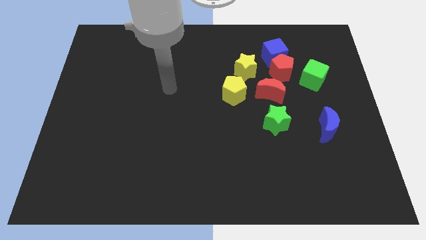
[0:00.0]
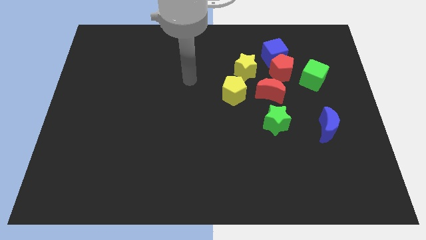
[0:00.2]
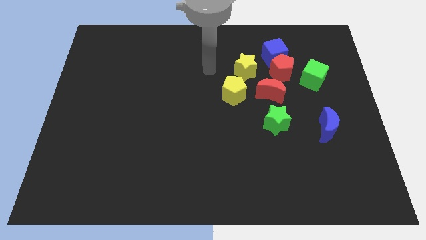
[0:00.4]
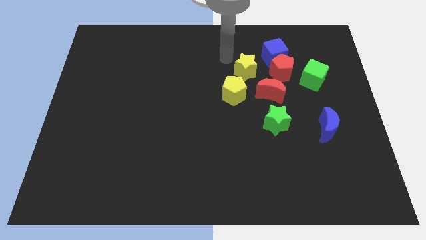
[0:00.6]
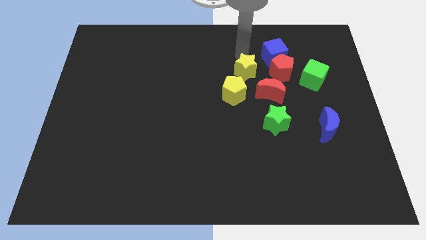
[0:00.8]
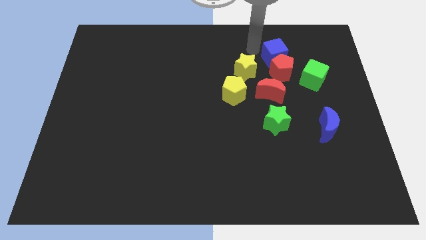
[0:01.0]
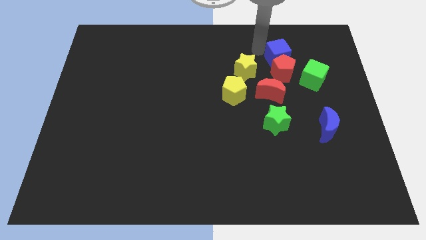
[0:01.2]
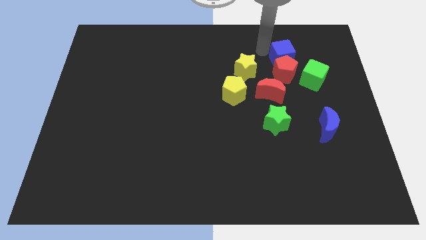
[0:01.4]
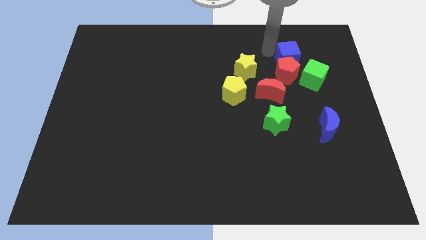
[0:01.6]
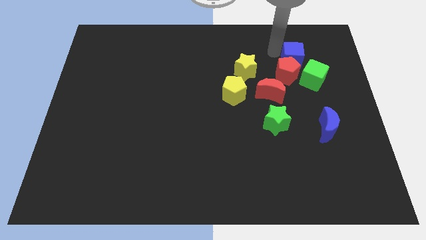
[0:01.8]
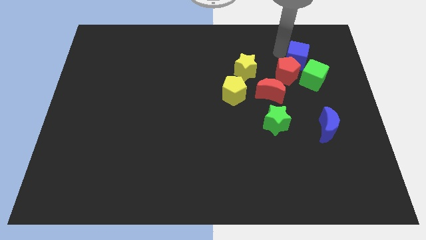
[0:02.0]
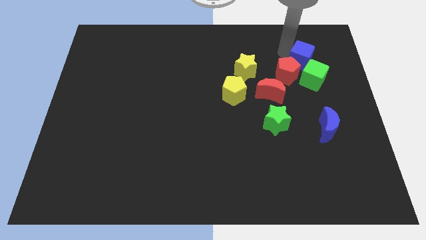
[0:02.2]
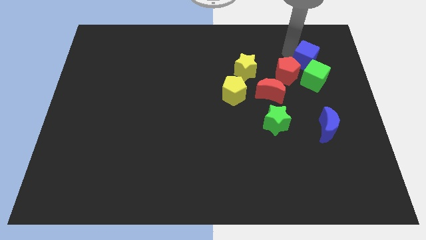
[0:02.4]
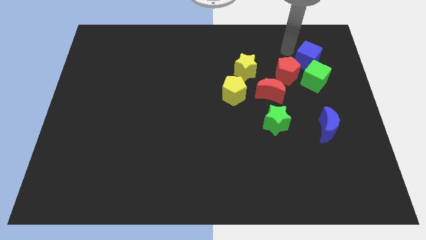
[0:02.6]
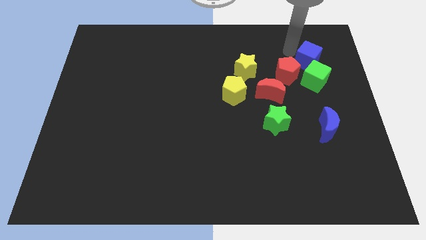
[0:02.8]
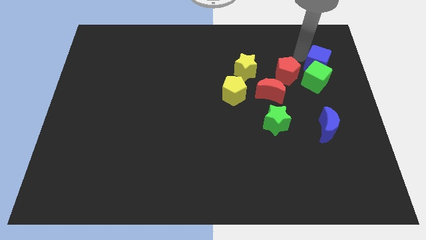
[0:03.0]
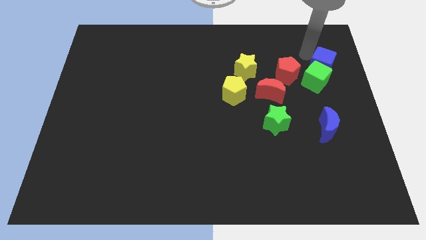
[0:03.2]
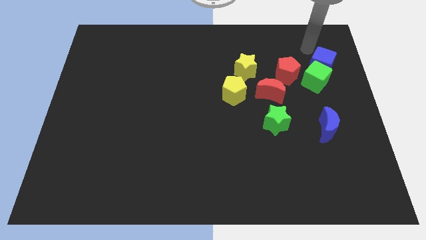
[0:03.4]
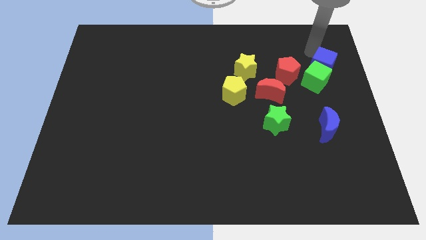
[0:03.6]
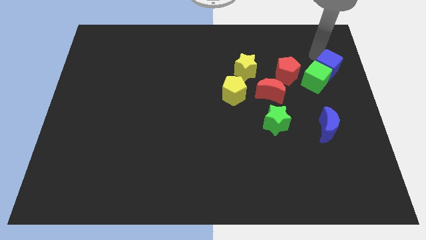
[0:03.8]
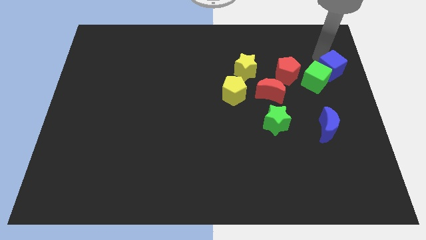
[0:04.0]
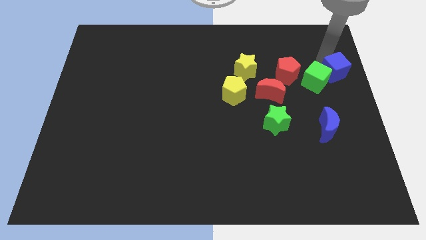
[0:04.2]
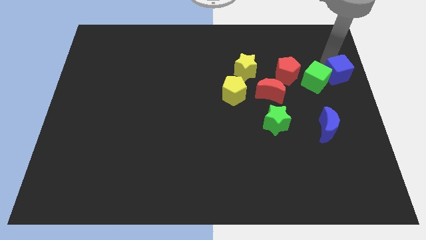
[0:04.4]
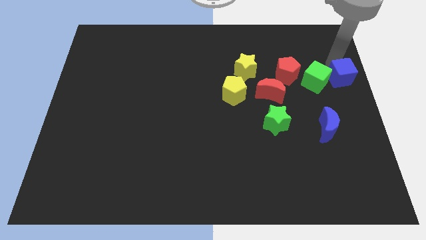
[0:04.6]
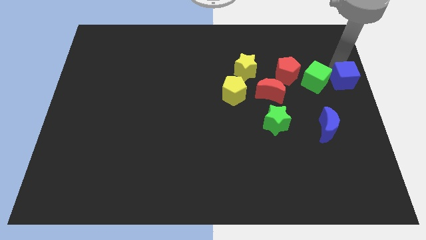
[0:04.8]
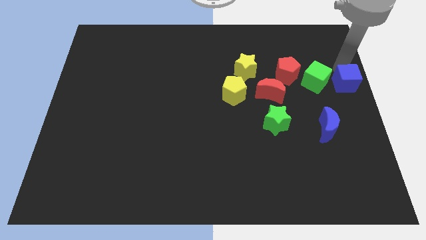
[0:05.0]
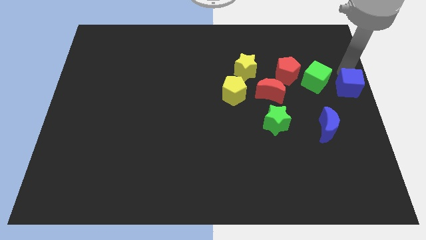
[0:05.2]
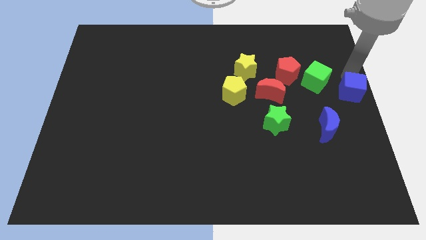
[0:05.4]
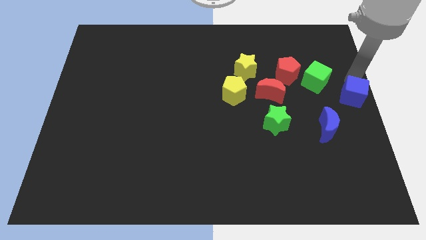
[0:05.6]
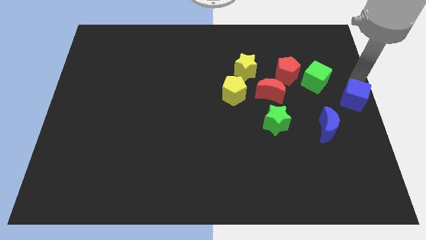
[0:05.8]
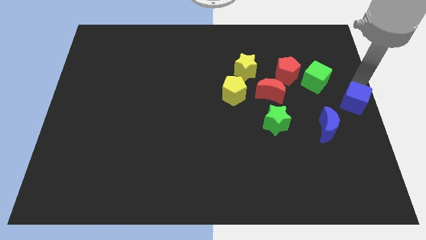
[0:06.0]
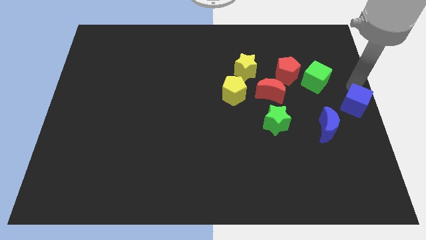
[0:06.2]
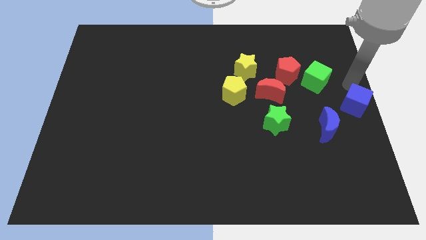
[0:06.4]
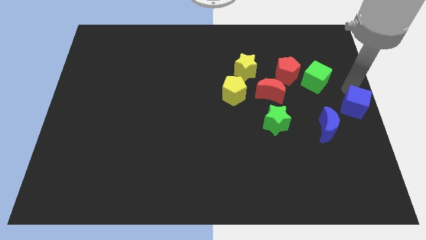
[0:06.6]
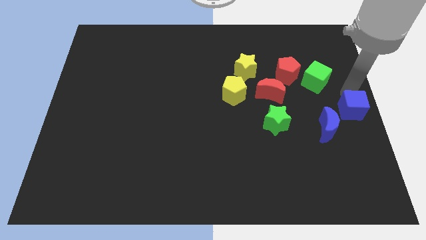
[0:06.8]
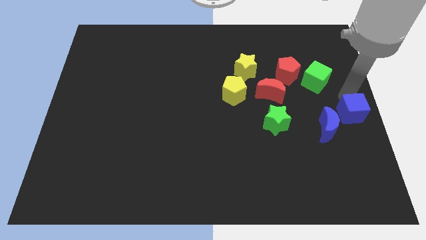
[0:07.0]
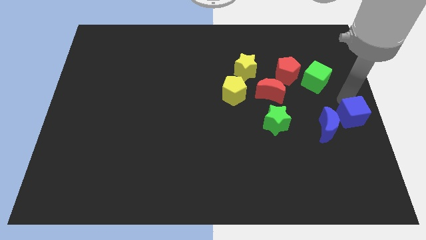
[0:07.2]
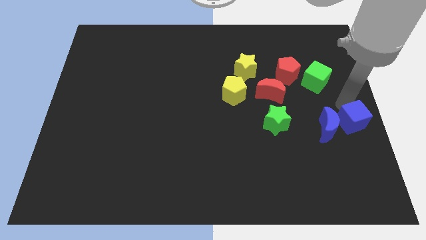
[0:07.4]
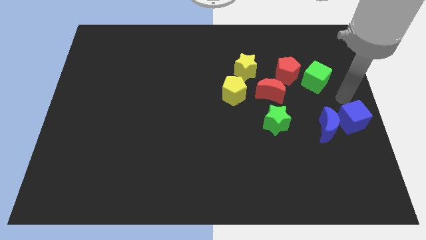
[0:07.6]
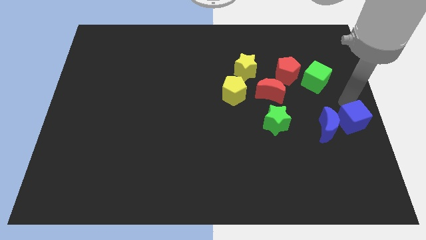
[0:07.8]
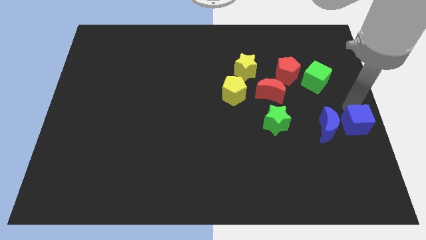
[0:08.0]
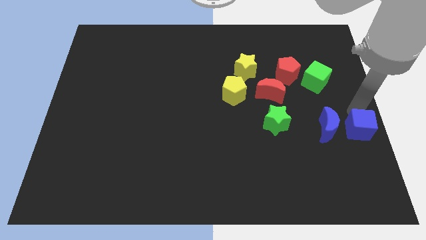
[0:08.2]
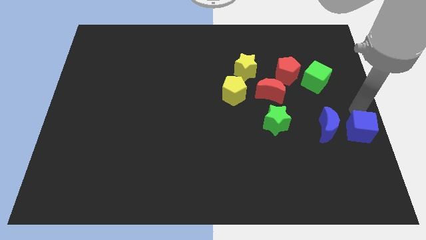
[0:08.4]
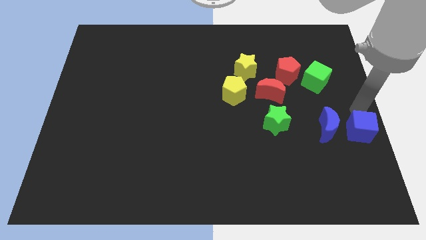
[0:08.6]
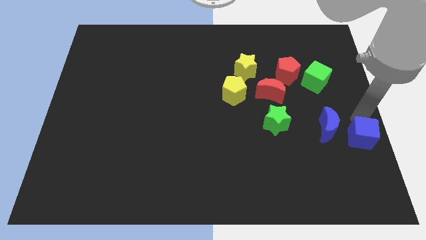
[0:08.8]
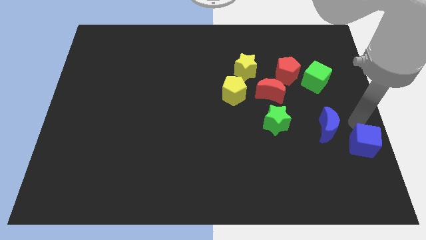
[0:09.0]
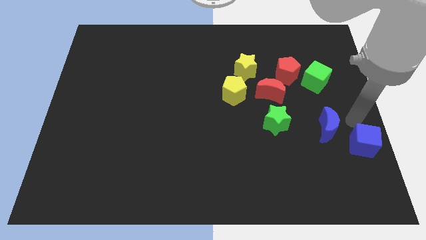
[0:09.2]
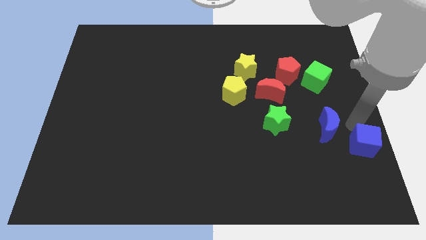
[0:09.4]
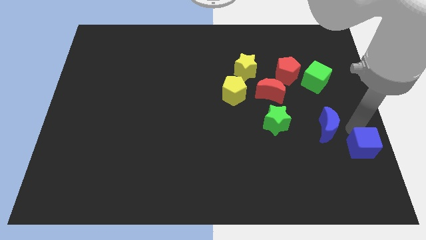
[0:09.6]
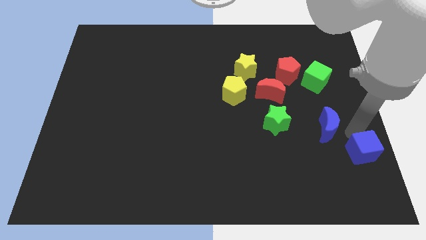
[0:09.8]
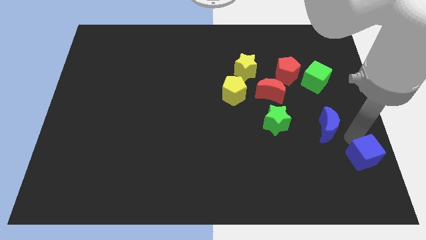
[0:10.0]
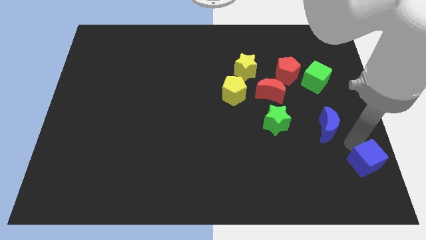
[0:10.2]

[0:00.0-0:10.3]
put the blue cube to the lower right corner

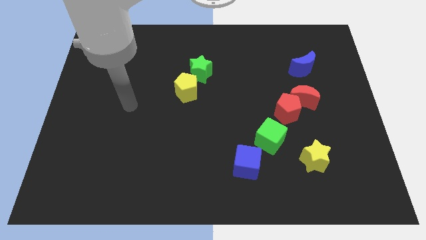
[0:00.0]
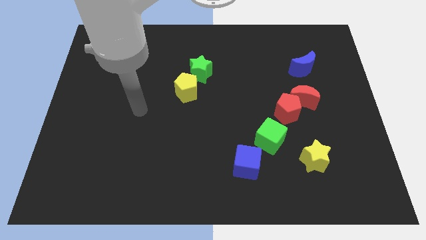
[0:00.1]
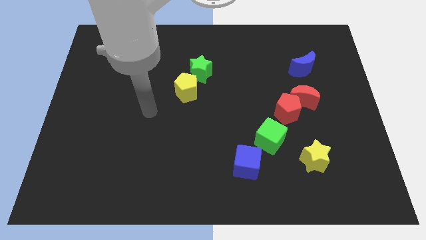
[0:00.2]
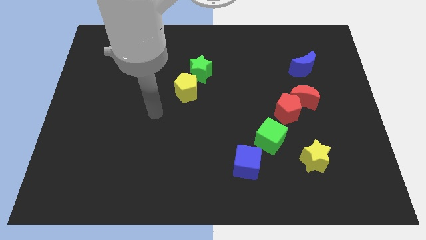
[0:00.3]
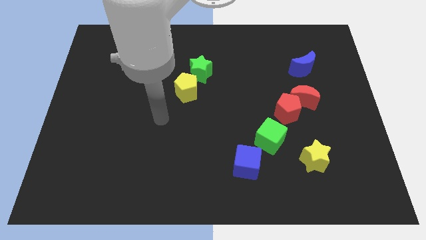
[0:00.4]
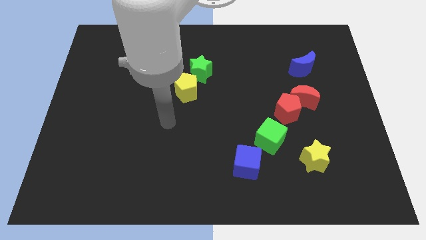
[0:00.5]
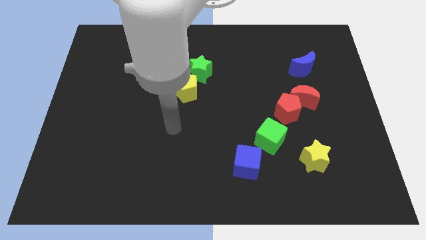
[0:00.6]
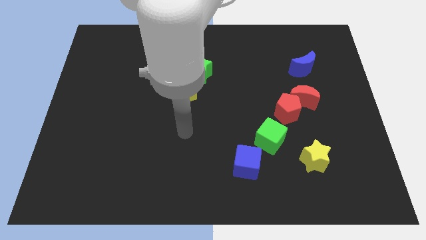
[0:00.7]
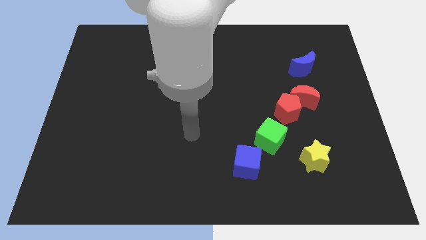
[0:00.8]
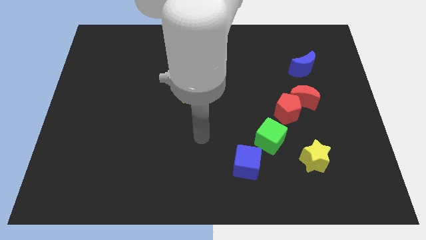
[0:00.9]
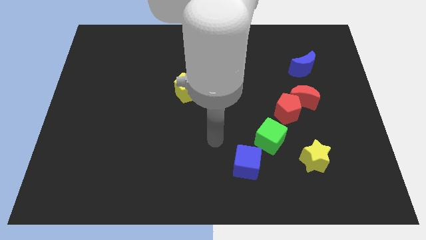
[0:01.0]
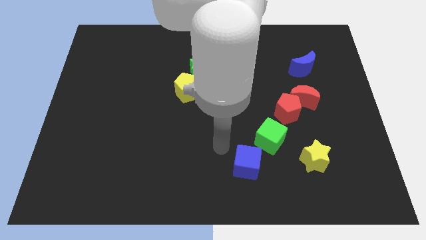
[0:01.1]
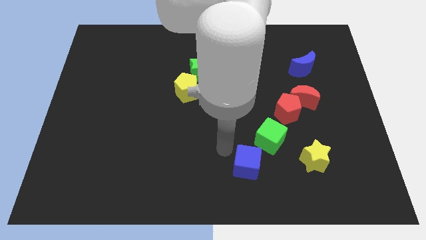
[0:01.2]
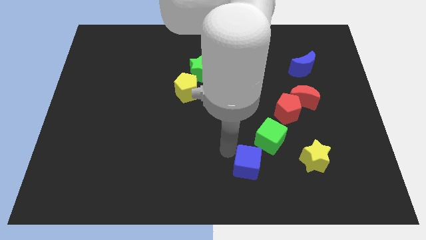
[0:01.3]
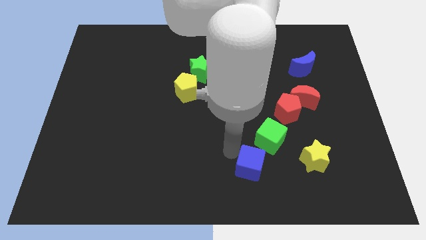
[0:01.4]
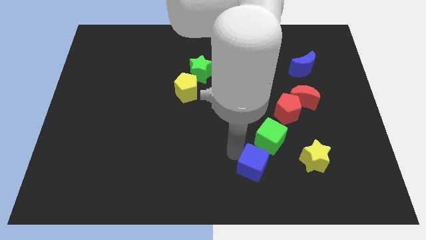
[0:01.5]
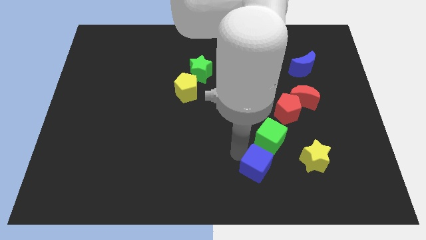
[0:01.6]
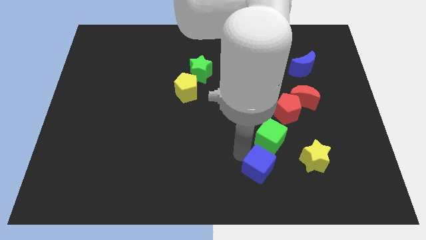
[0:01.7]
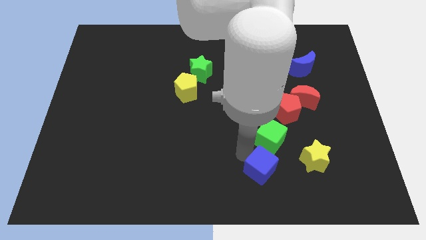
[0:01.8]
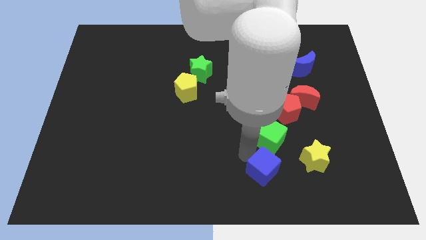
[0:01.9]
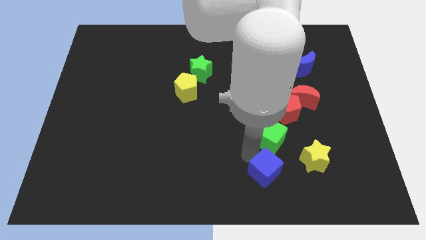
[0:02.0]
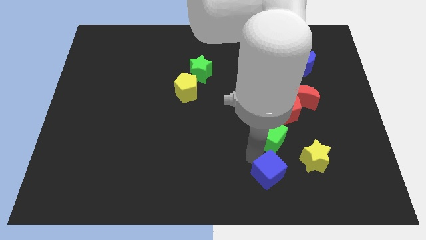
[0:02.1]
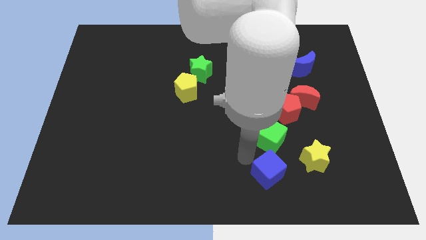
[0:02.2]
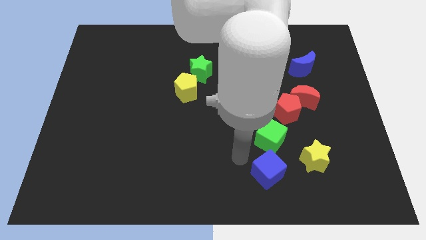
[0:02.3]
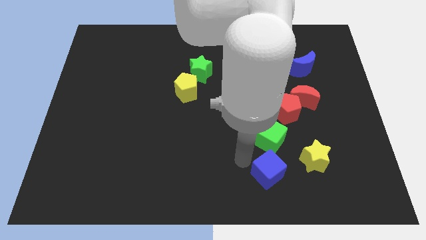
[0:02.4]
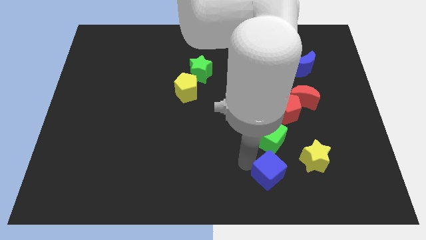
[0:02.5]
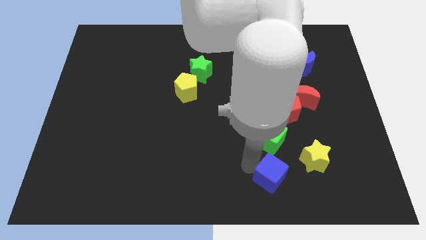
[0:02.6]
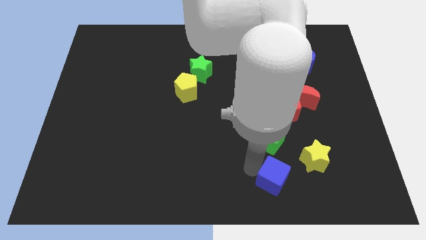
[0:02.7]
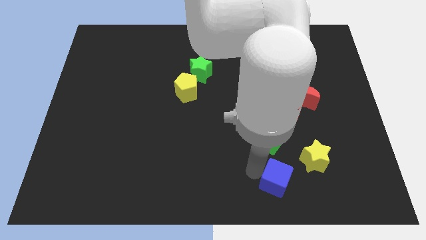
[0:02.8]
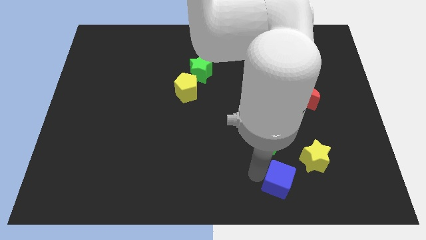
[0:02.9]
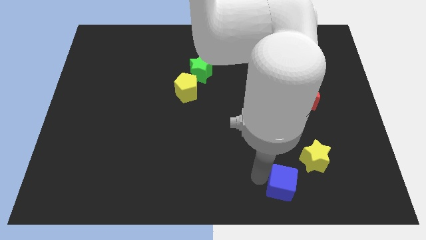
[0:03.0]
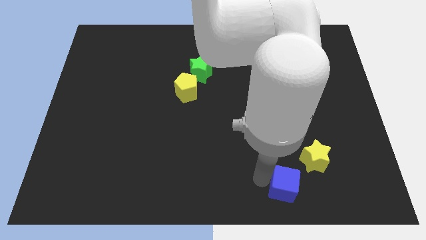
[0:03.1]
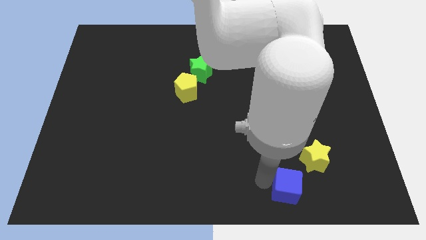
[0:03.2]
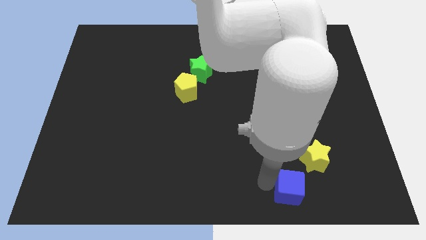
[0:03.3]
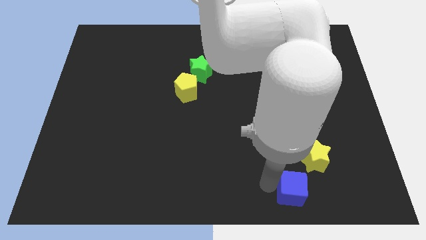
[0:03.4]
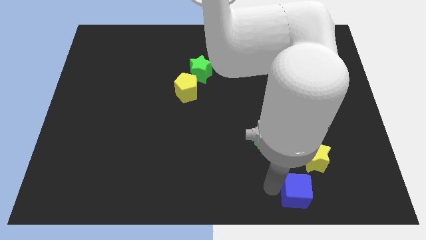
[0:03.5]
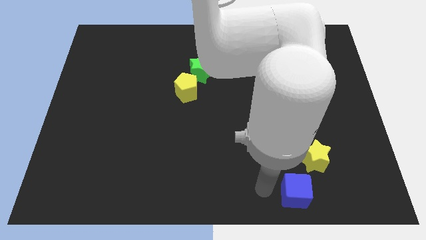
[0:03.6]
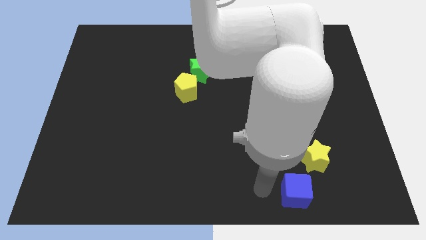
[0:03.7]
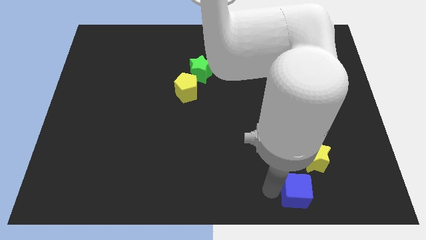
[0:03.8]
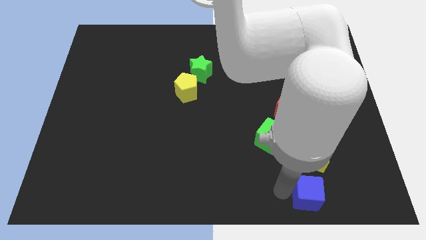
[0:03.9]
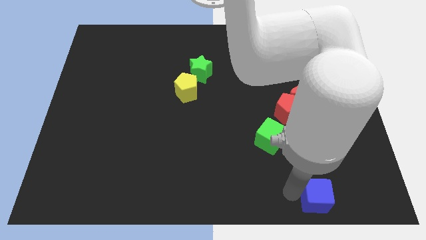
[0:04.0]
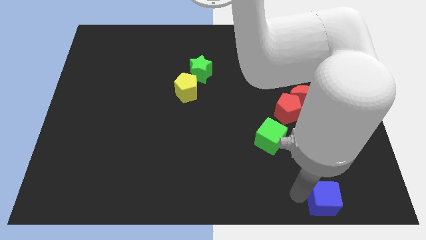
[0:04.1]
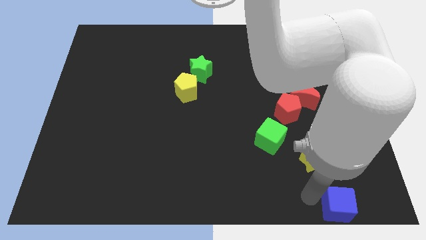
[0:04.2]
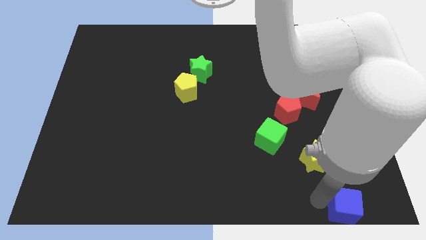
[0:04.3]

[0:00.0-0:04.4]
move the blue cube to the lower right corner
